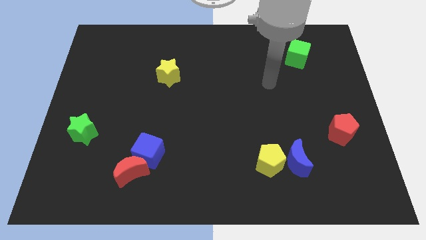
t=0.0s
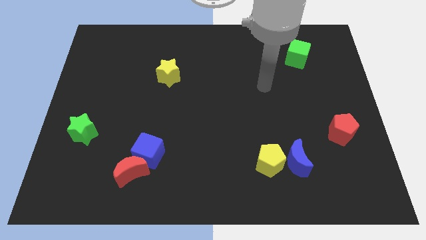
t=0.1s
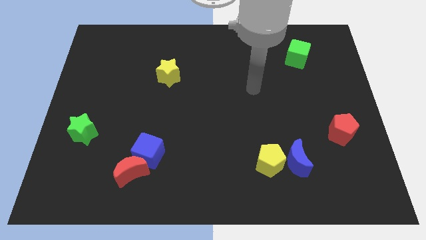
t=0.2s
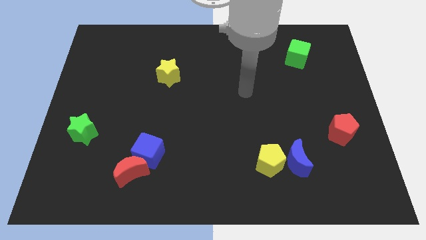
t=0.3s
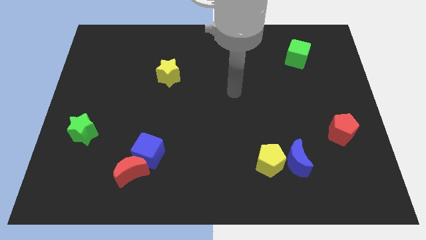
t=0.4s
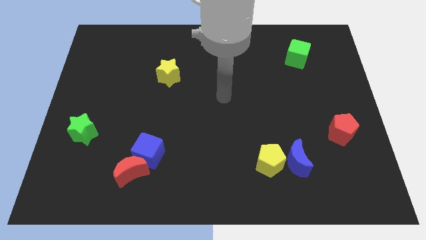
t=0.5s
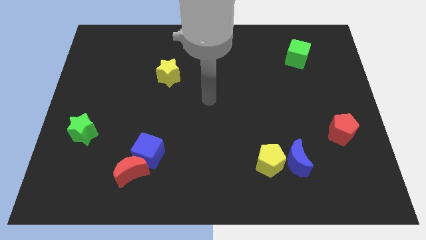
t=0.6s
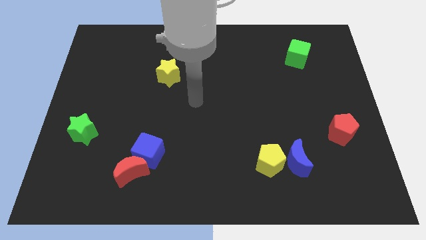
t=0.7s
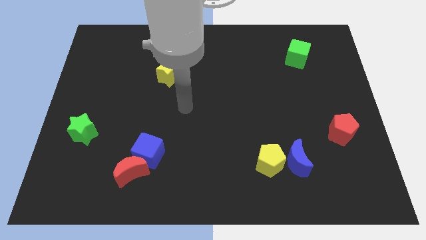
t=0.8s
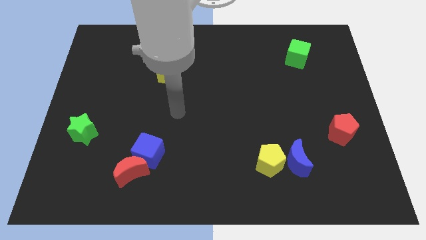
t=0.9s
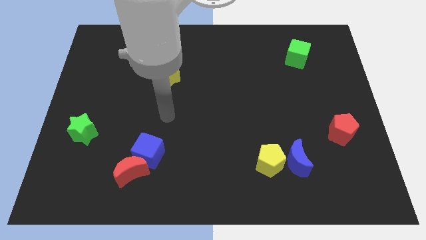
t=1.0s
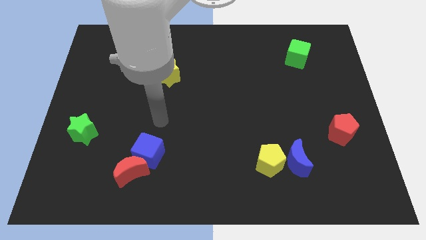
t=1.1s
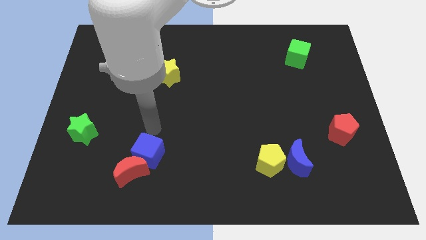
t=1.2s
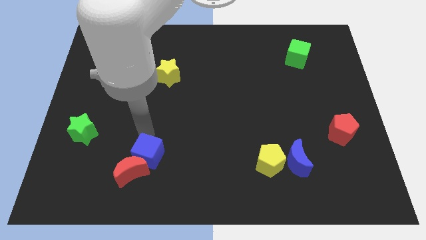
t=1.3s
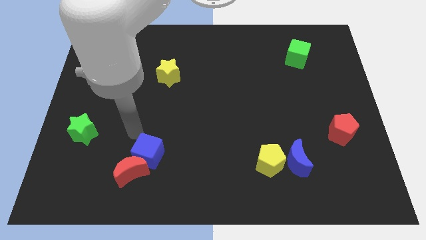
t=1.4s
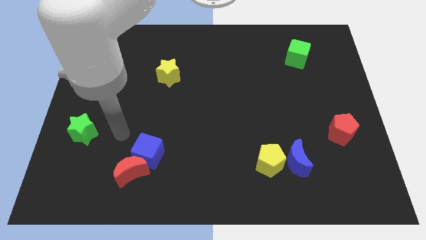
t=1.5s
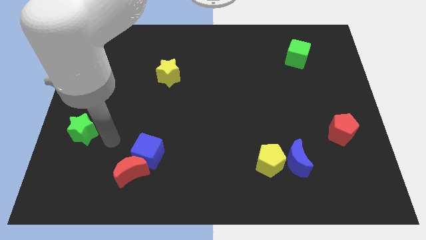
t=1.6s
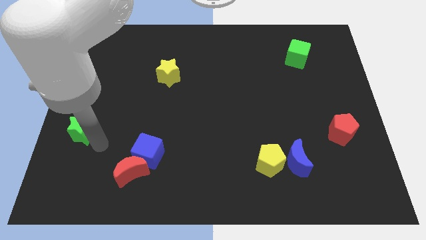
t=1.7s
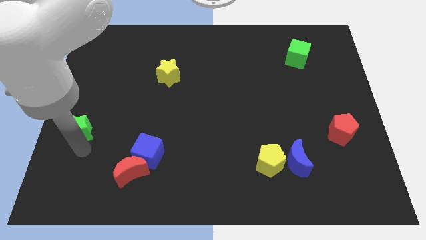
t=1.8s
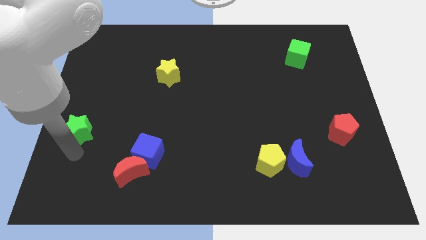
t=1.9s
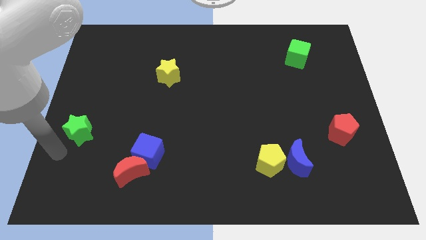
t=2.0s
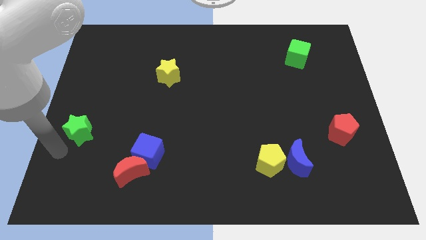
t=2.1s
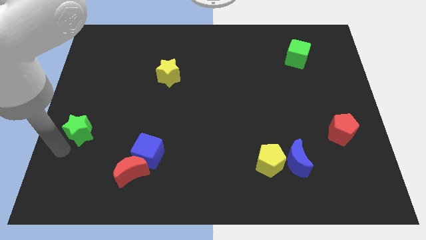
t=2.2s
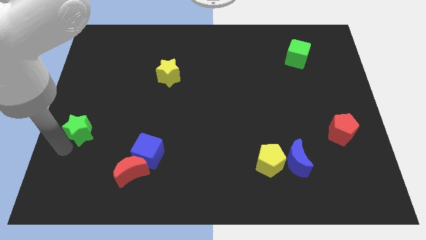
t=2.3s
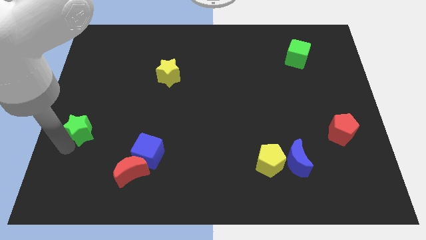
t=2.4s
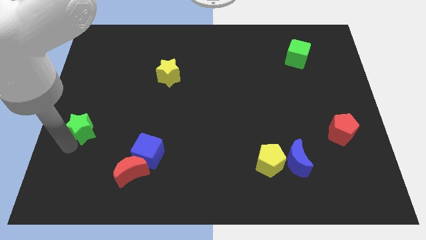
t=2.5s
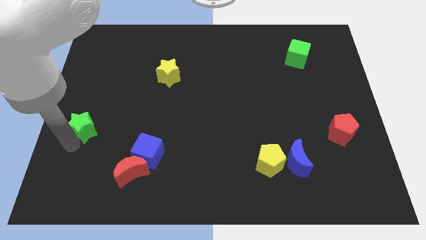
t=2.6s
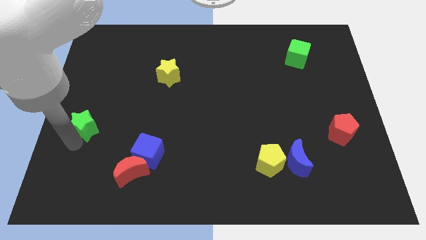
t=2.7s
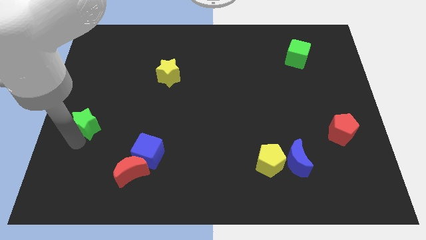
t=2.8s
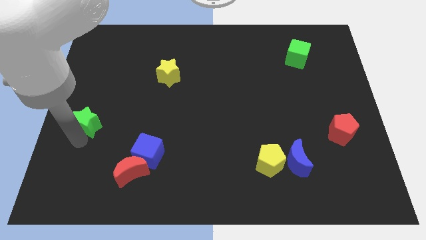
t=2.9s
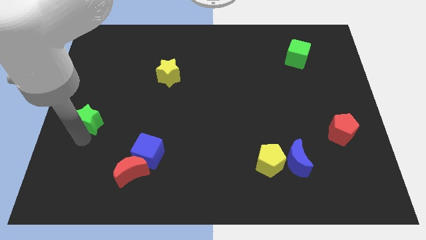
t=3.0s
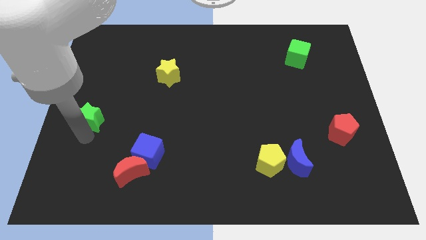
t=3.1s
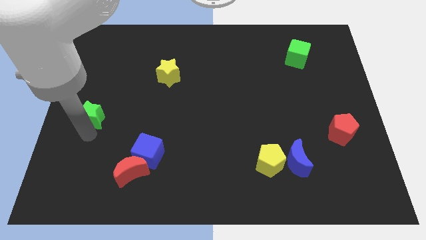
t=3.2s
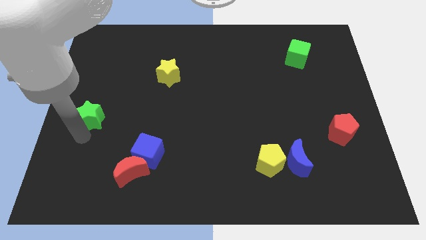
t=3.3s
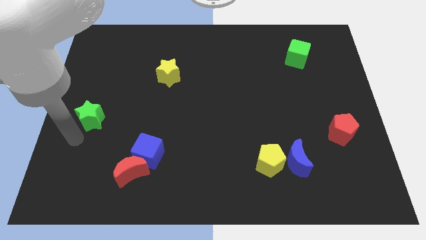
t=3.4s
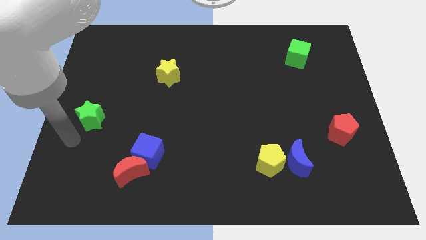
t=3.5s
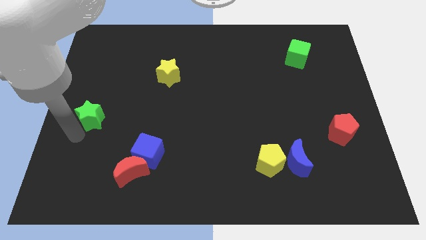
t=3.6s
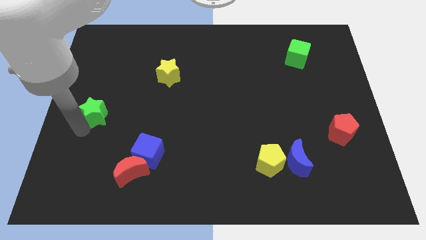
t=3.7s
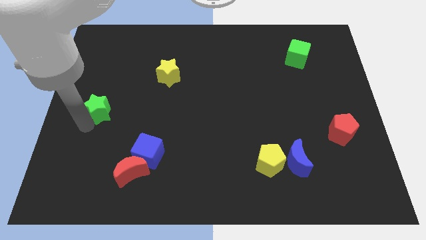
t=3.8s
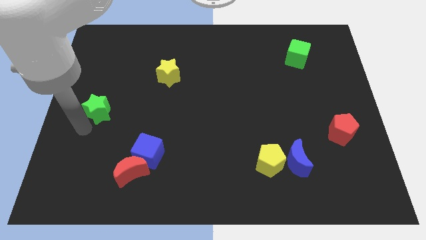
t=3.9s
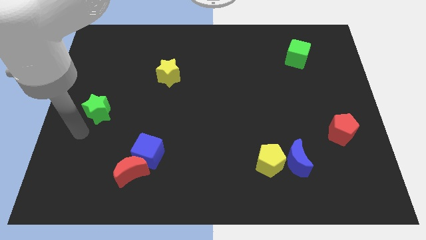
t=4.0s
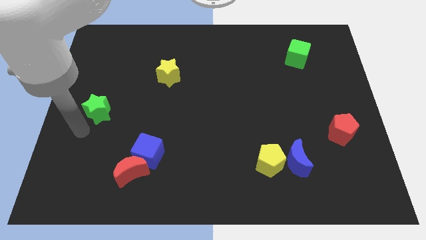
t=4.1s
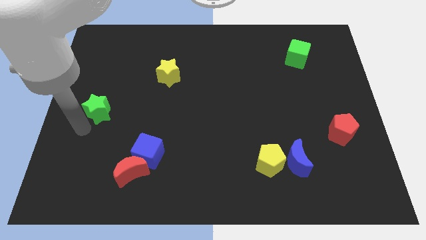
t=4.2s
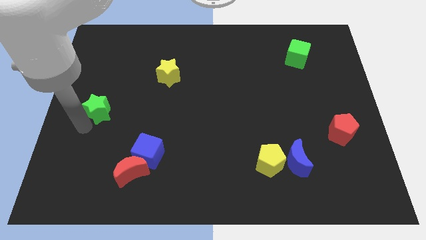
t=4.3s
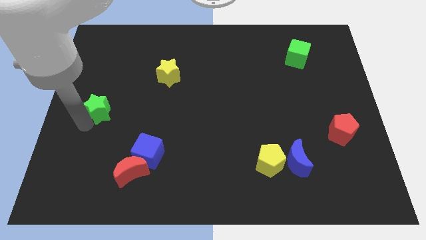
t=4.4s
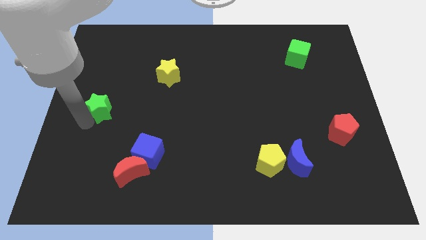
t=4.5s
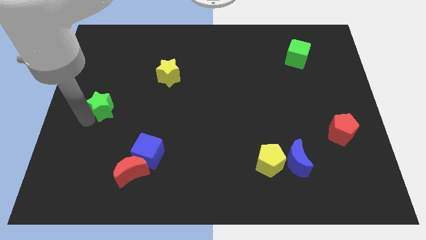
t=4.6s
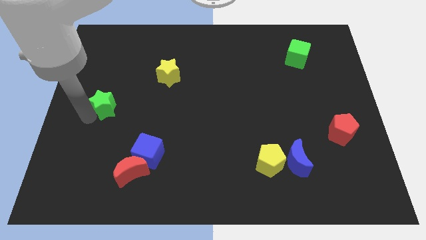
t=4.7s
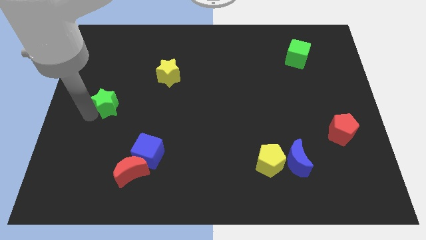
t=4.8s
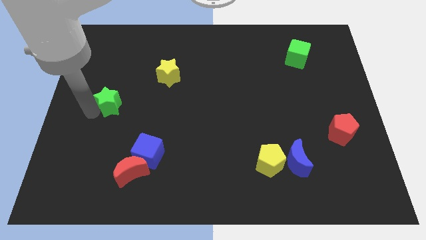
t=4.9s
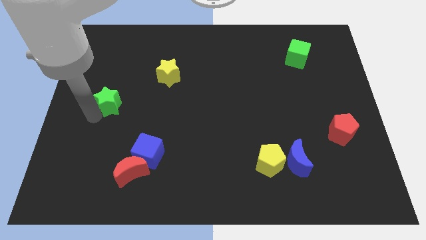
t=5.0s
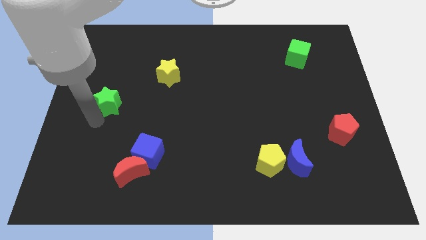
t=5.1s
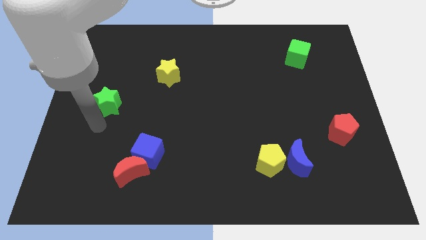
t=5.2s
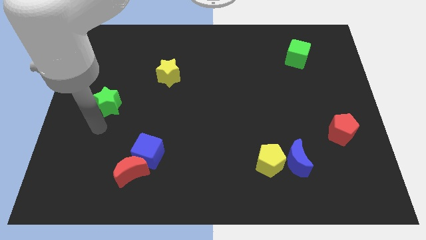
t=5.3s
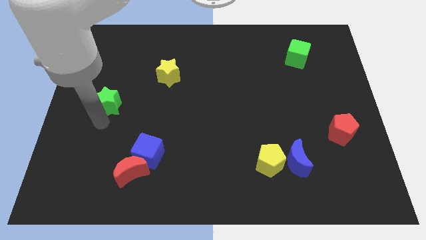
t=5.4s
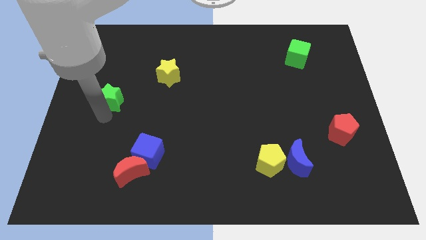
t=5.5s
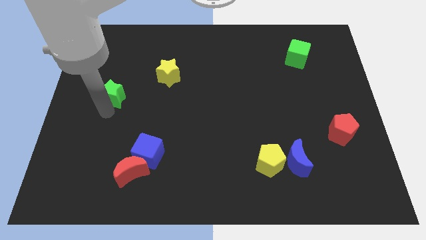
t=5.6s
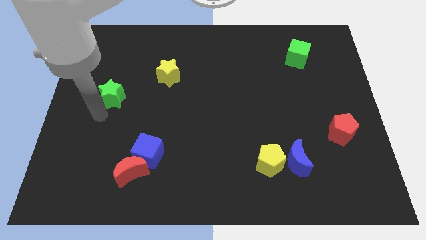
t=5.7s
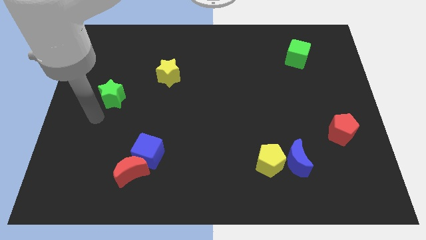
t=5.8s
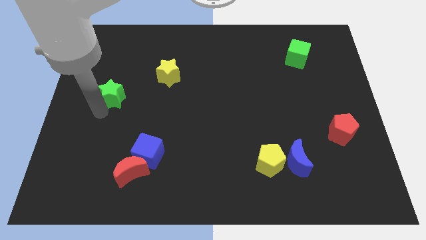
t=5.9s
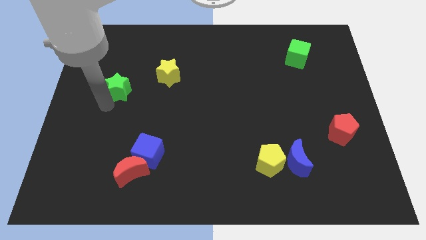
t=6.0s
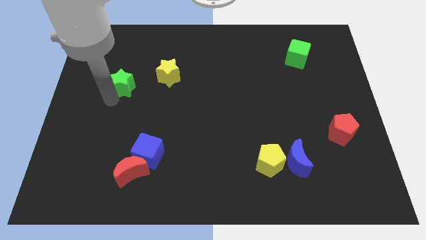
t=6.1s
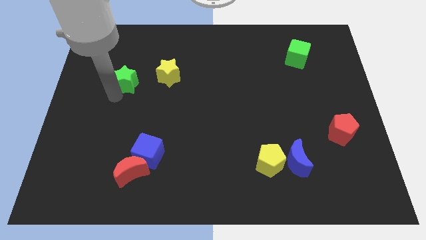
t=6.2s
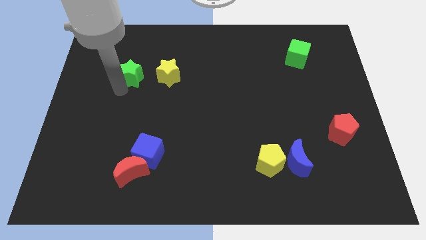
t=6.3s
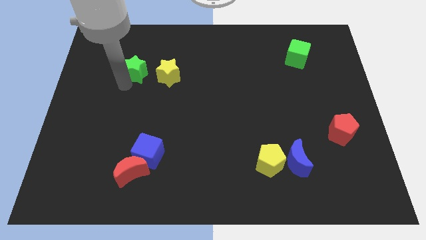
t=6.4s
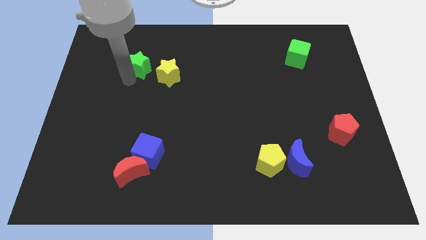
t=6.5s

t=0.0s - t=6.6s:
put the green star to the top left of the yellow star

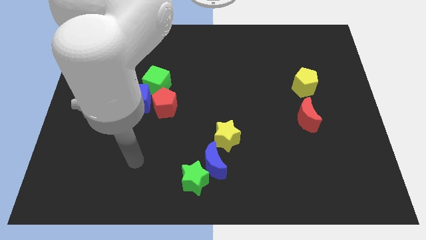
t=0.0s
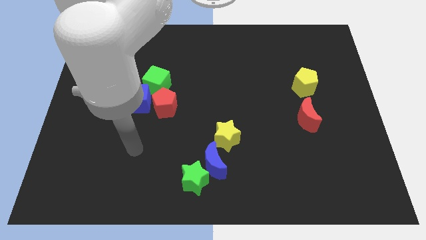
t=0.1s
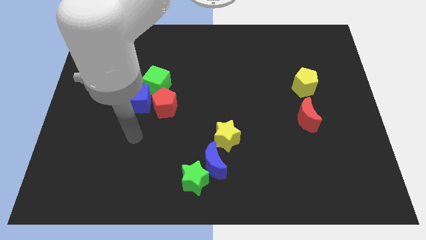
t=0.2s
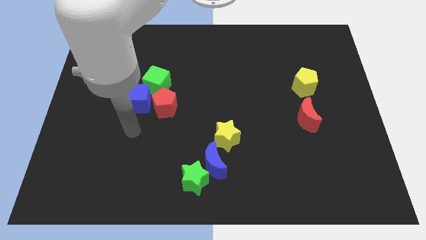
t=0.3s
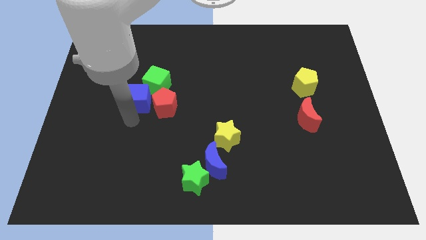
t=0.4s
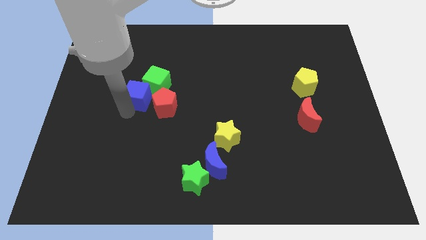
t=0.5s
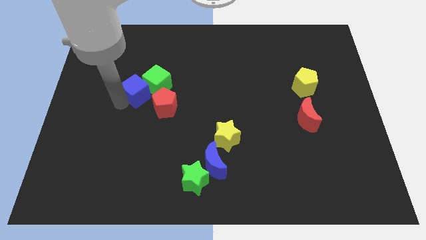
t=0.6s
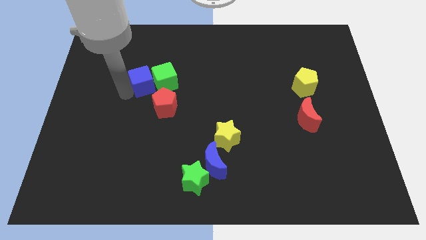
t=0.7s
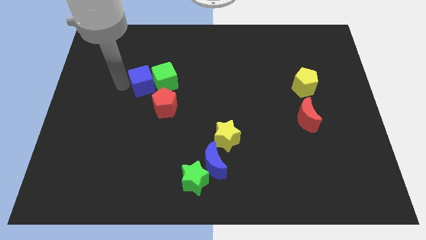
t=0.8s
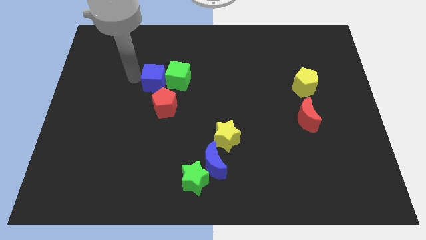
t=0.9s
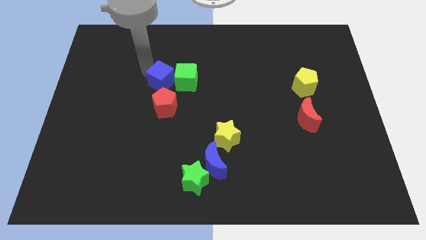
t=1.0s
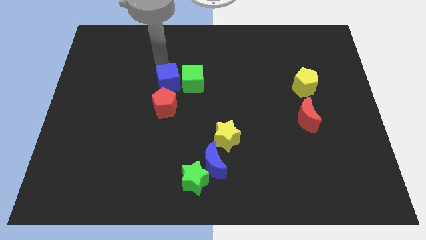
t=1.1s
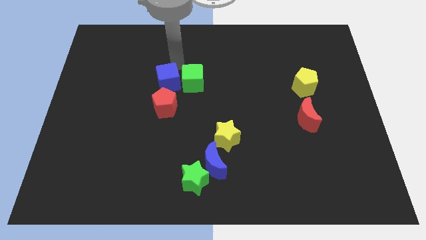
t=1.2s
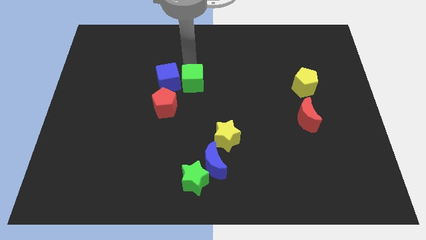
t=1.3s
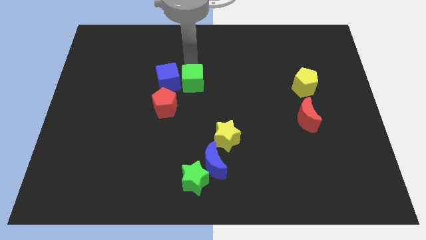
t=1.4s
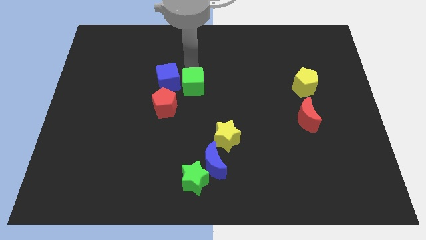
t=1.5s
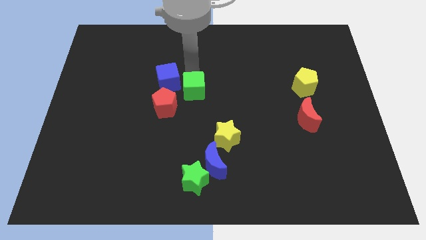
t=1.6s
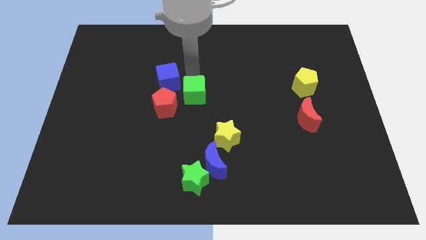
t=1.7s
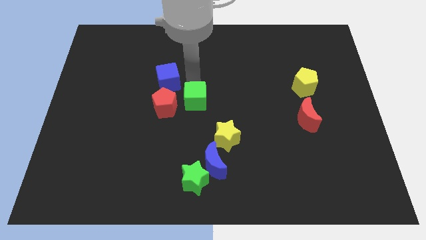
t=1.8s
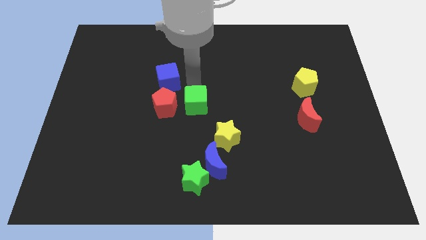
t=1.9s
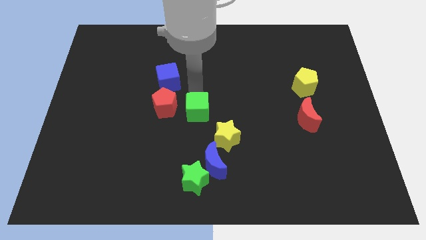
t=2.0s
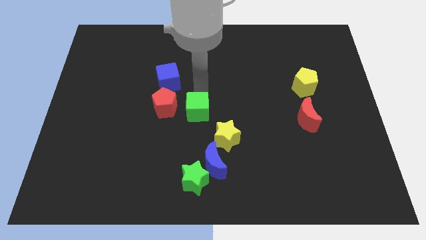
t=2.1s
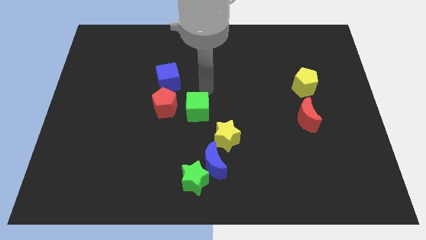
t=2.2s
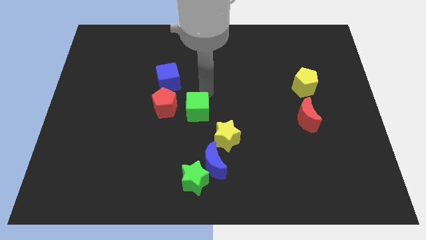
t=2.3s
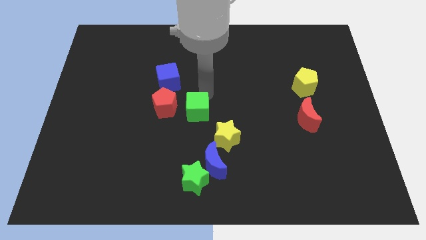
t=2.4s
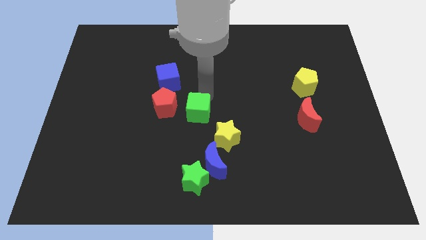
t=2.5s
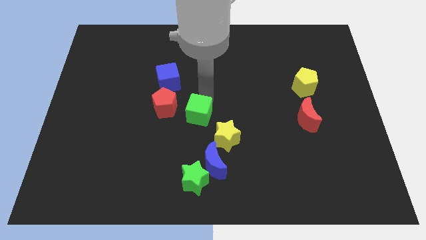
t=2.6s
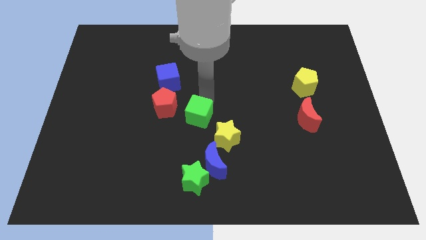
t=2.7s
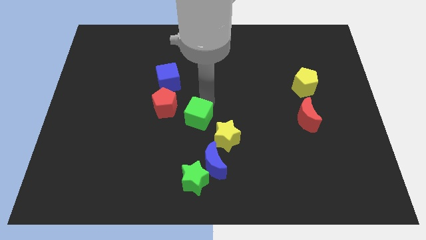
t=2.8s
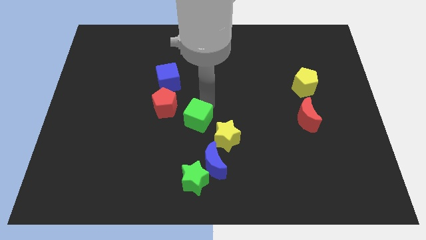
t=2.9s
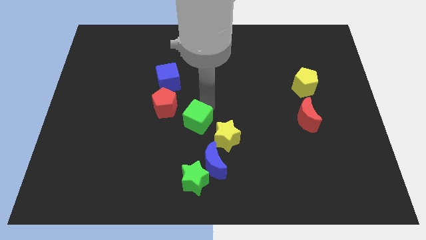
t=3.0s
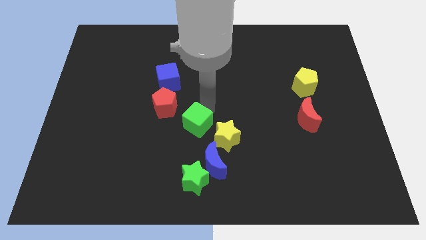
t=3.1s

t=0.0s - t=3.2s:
slide the green cube to the left side of the yellow star
